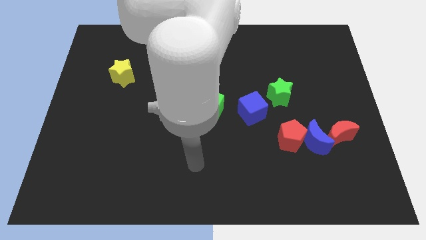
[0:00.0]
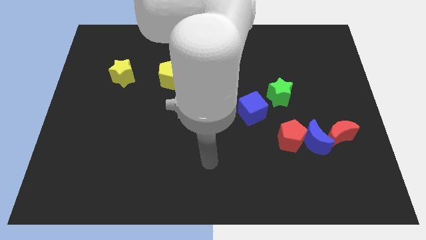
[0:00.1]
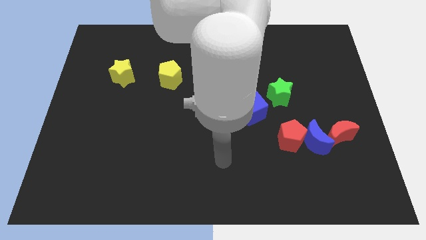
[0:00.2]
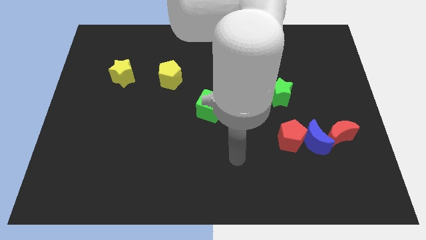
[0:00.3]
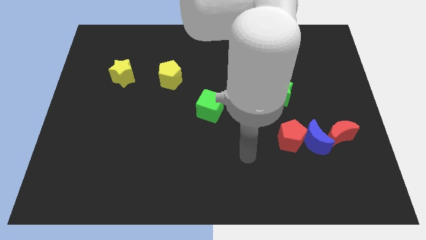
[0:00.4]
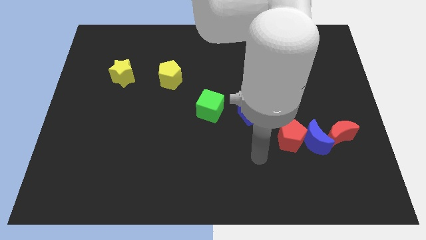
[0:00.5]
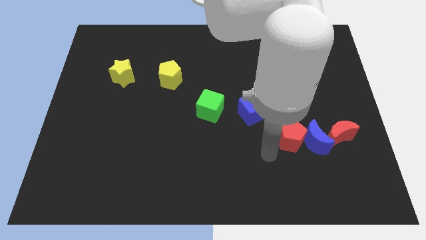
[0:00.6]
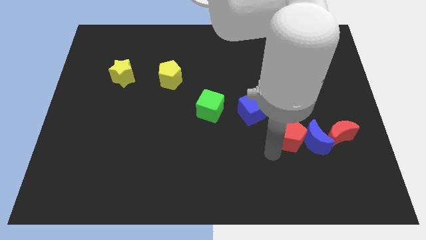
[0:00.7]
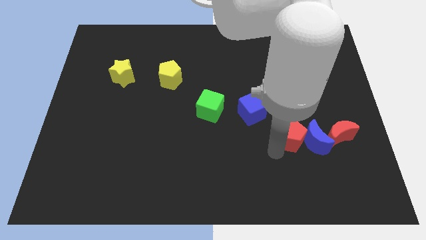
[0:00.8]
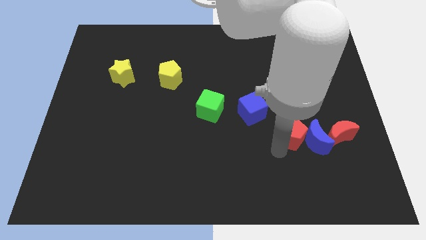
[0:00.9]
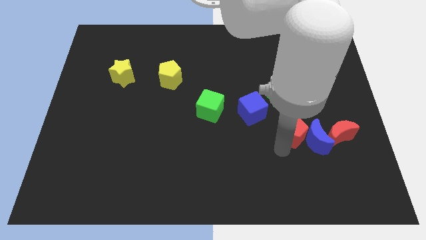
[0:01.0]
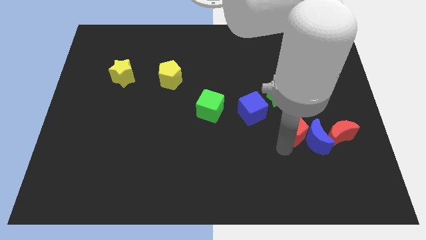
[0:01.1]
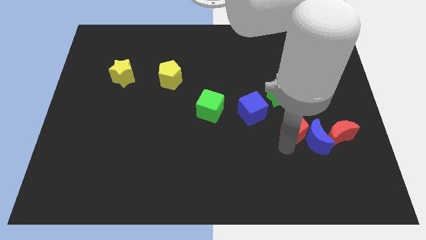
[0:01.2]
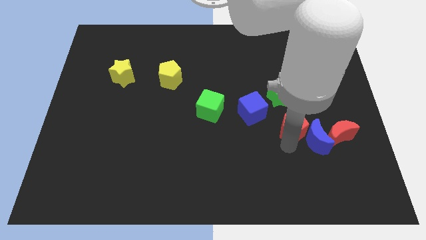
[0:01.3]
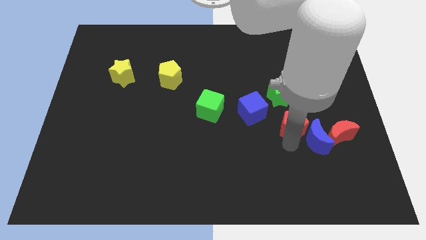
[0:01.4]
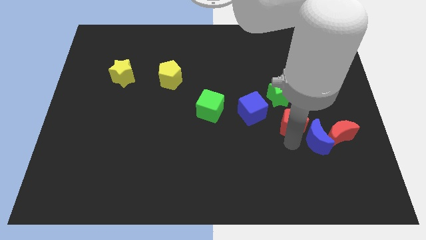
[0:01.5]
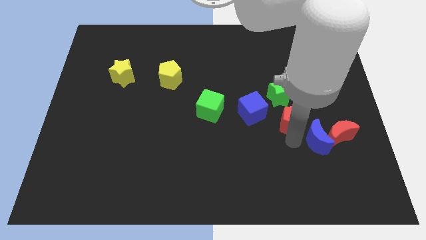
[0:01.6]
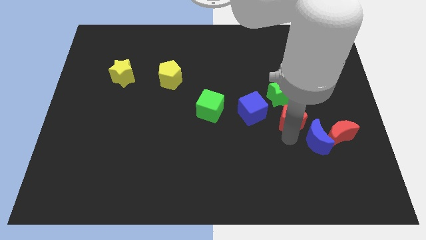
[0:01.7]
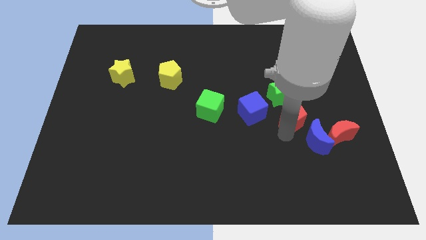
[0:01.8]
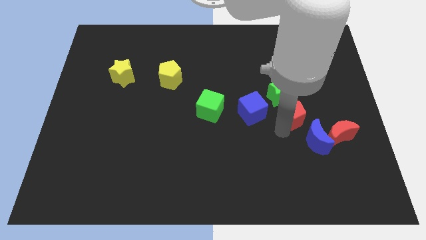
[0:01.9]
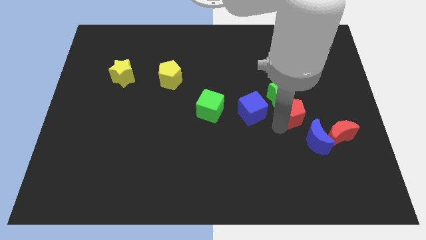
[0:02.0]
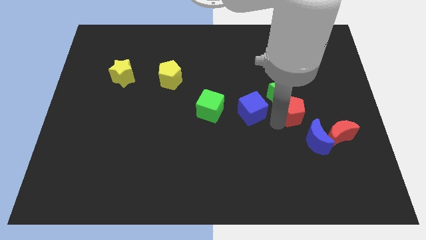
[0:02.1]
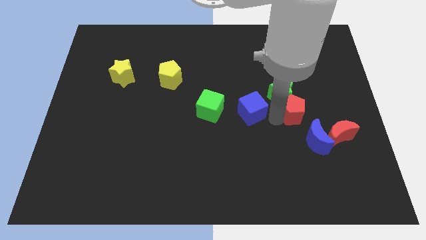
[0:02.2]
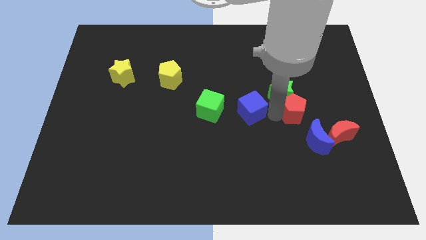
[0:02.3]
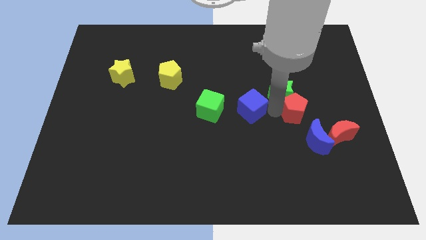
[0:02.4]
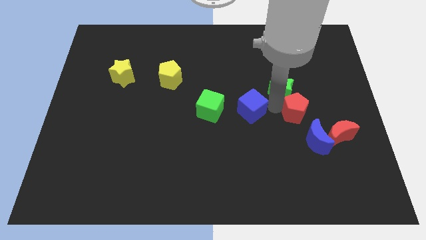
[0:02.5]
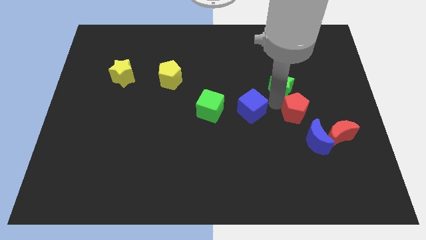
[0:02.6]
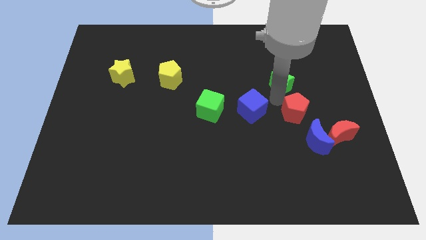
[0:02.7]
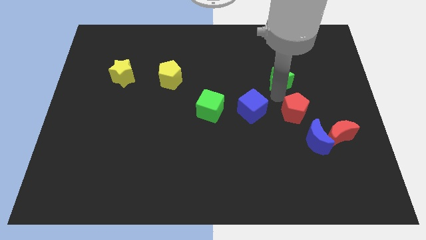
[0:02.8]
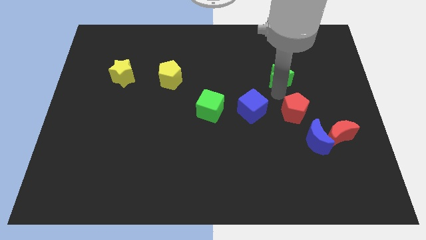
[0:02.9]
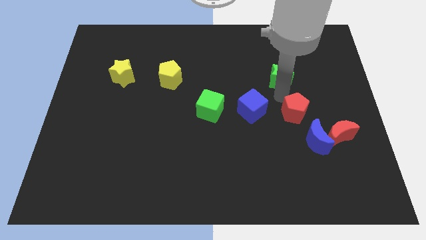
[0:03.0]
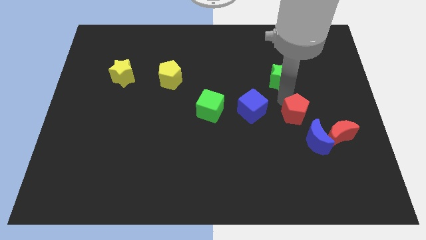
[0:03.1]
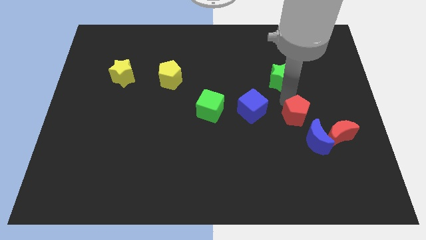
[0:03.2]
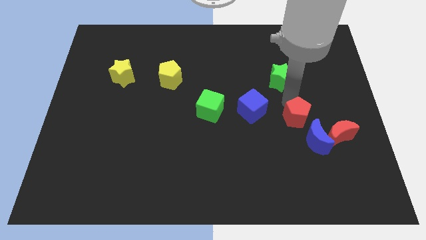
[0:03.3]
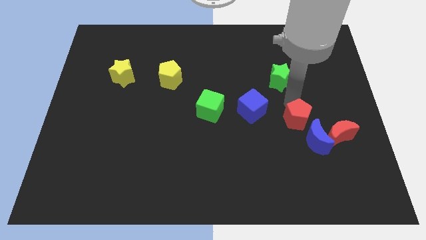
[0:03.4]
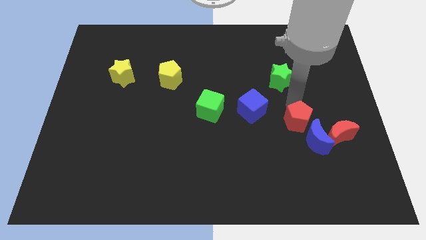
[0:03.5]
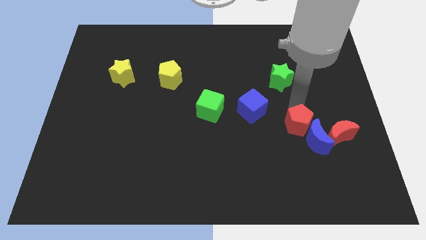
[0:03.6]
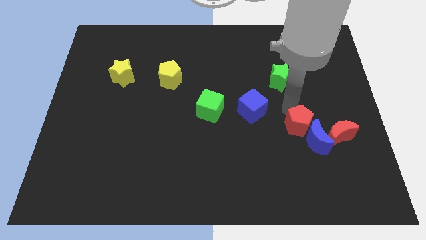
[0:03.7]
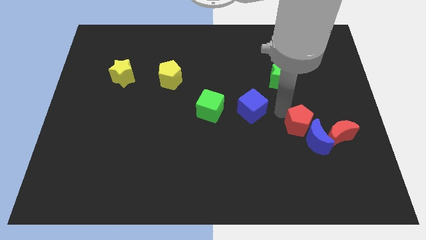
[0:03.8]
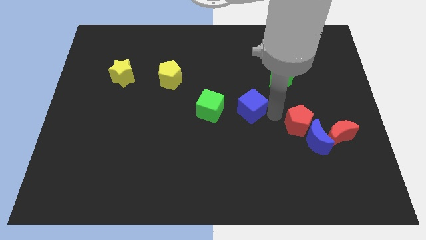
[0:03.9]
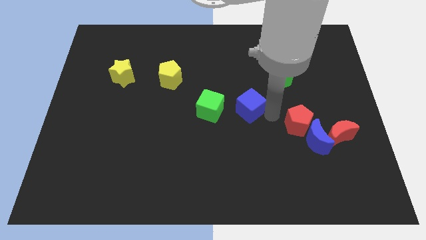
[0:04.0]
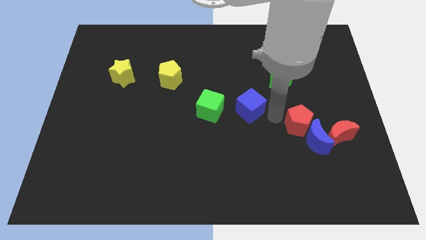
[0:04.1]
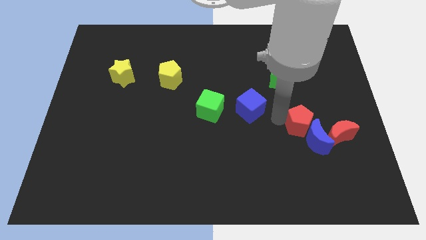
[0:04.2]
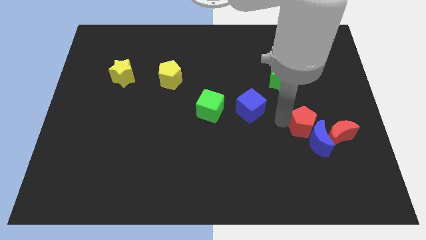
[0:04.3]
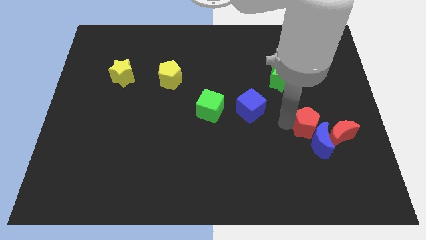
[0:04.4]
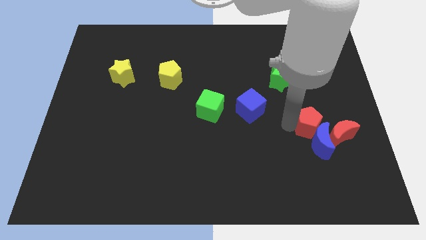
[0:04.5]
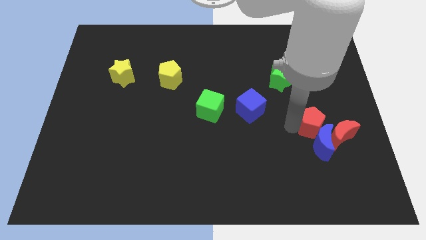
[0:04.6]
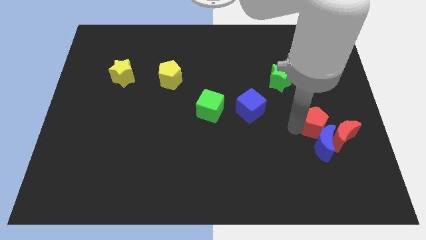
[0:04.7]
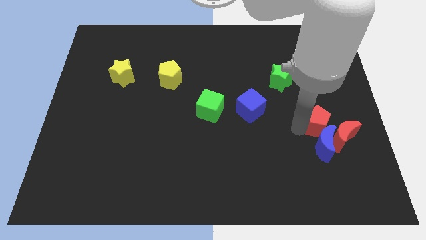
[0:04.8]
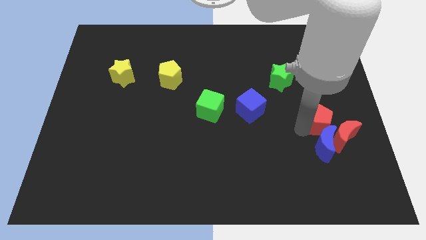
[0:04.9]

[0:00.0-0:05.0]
push the red pentagon close to the red moon

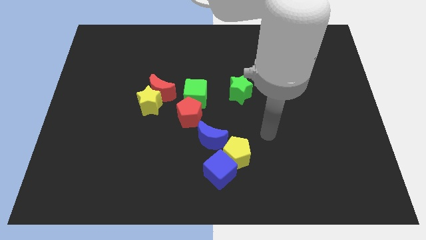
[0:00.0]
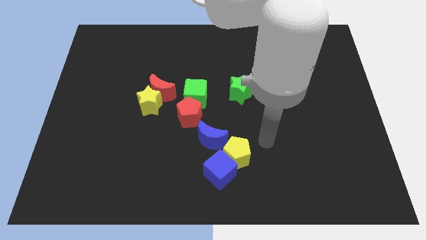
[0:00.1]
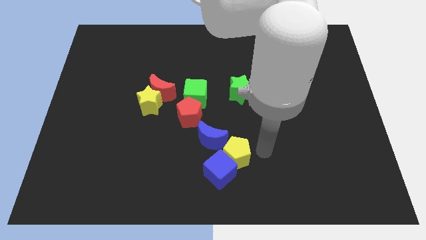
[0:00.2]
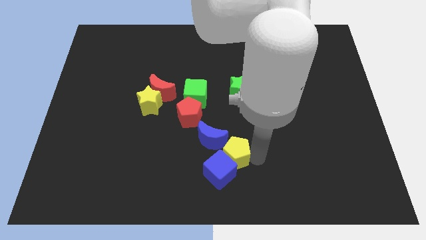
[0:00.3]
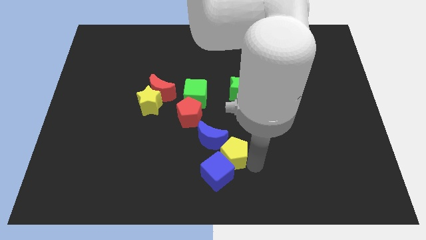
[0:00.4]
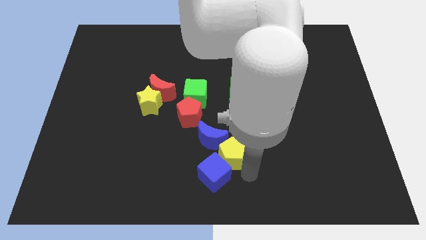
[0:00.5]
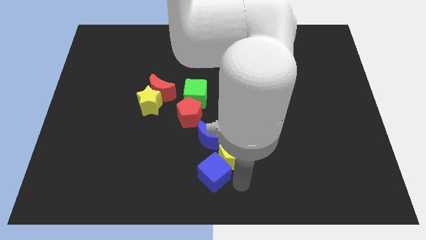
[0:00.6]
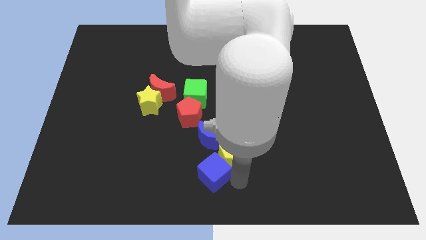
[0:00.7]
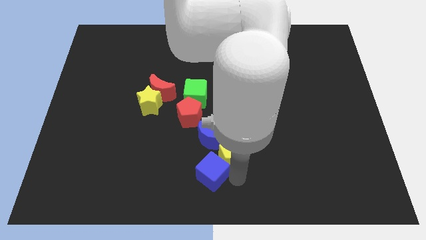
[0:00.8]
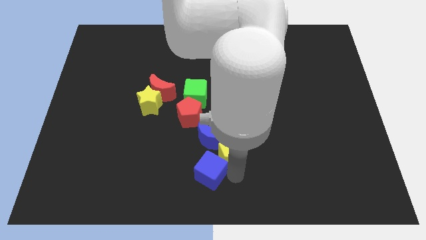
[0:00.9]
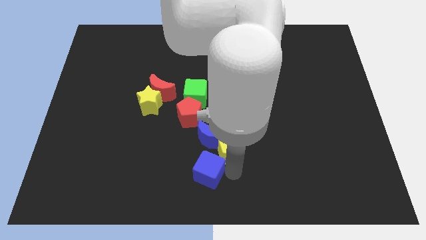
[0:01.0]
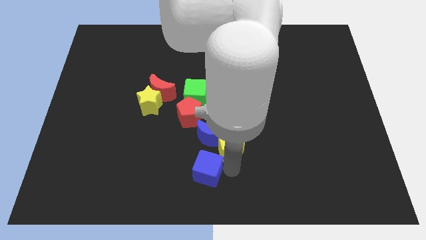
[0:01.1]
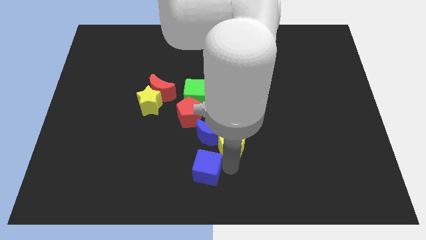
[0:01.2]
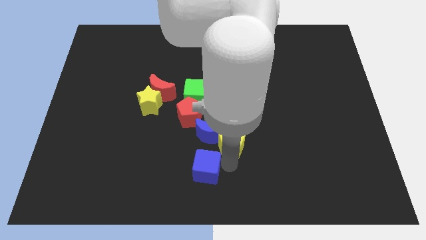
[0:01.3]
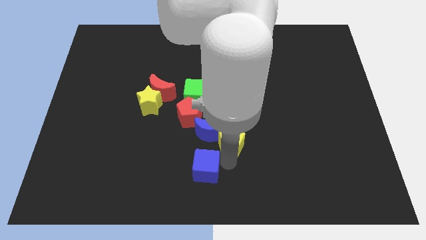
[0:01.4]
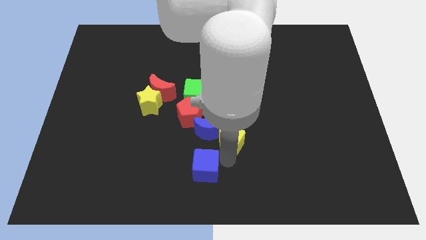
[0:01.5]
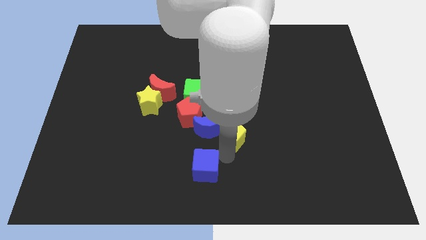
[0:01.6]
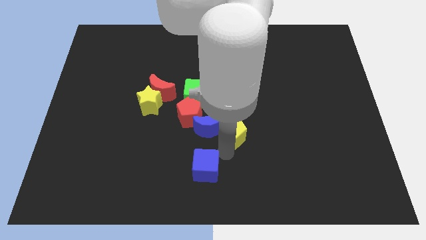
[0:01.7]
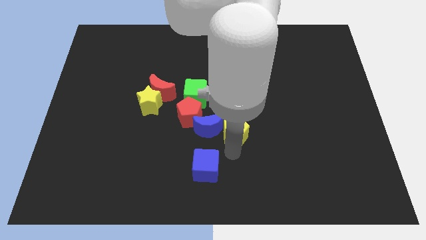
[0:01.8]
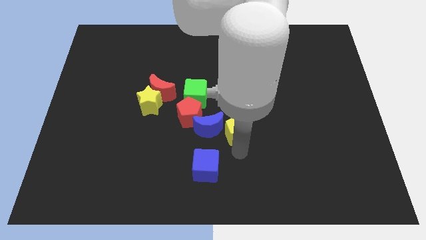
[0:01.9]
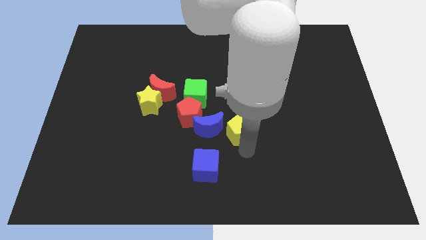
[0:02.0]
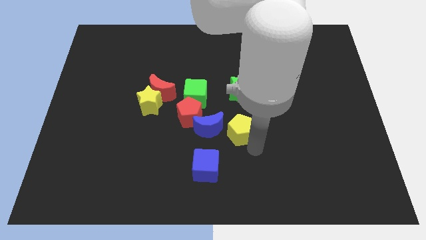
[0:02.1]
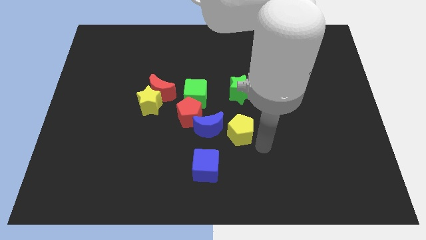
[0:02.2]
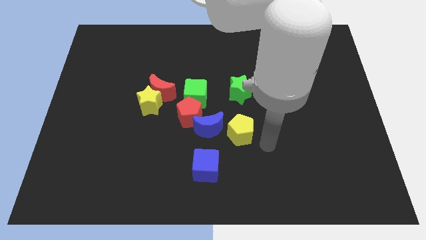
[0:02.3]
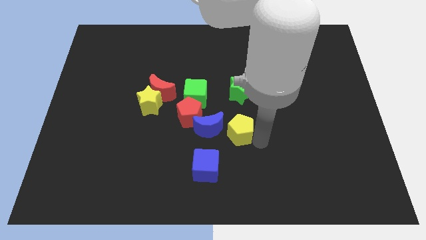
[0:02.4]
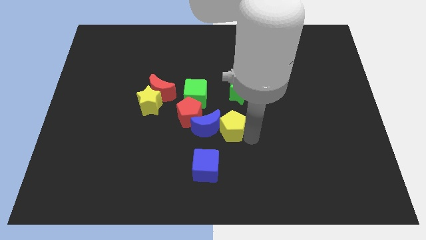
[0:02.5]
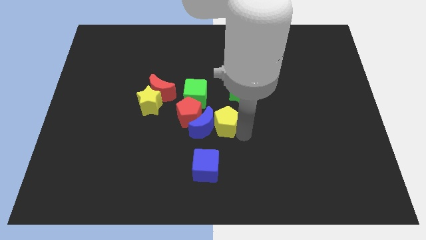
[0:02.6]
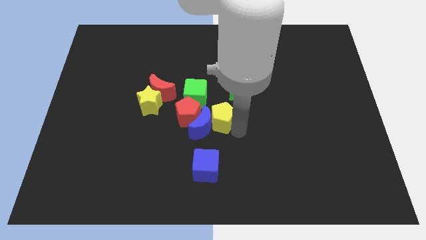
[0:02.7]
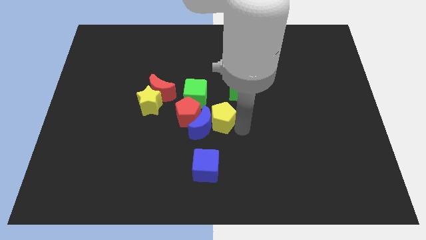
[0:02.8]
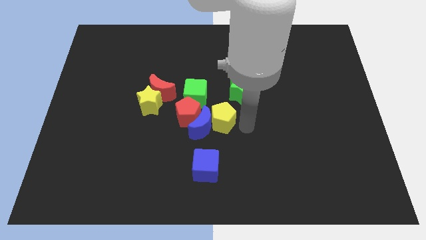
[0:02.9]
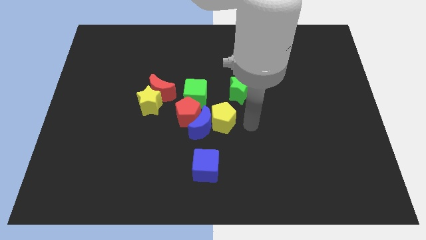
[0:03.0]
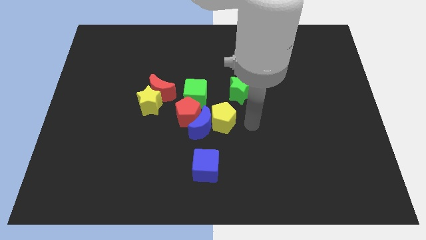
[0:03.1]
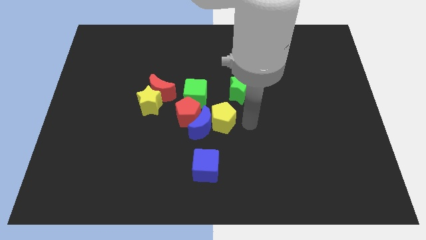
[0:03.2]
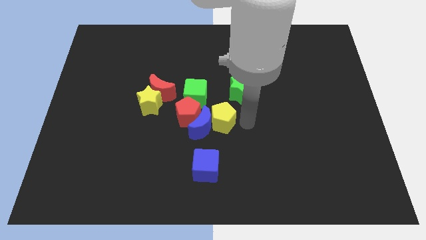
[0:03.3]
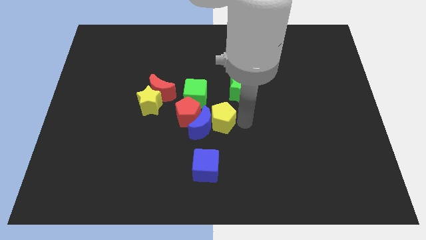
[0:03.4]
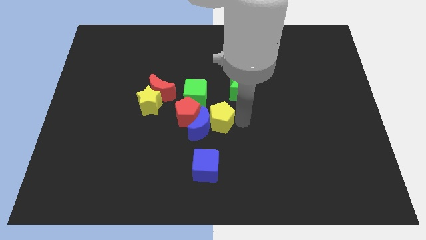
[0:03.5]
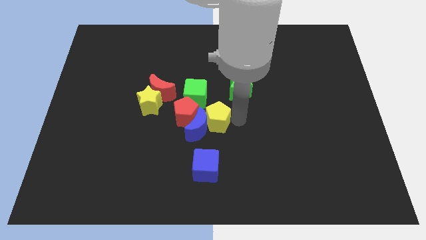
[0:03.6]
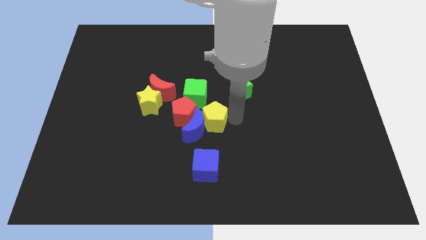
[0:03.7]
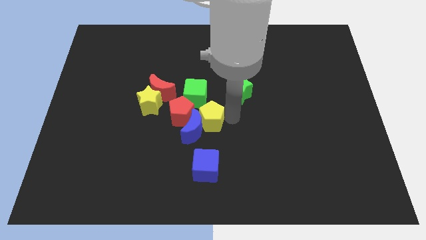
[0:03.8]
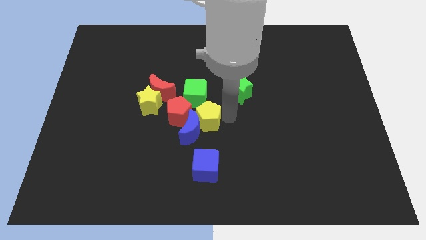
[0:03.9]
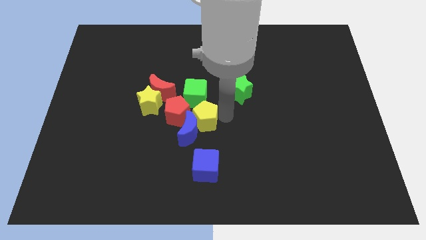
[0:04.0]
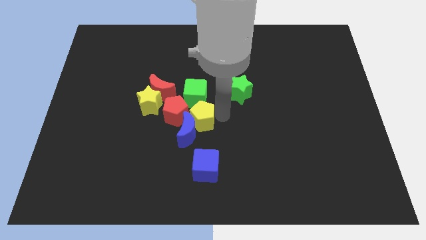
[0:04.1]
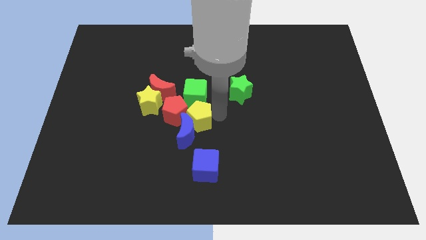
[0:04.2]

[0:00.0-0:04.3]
put the yellow pentagon to the red pentagon
